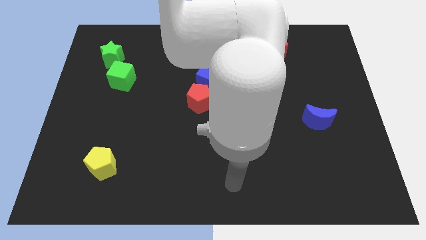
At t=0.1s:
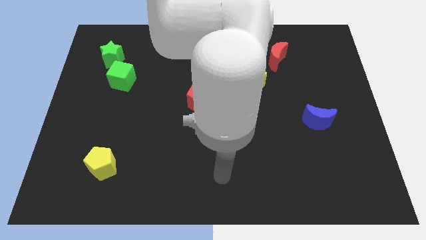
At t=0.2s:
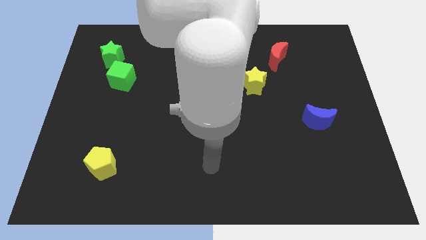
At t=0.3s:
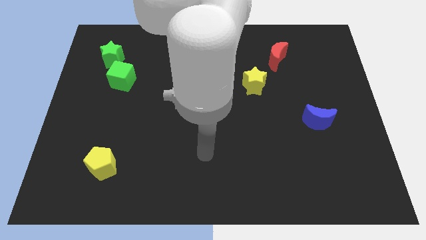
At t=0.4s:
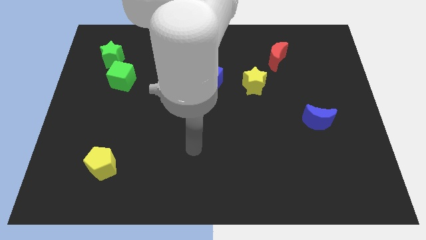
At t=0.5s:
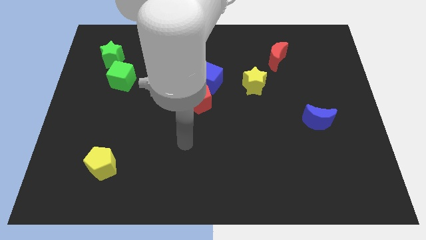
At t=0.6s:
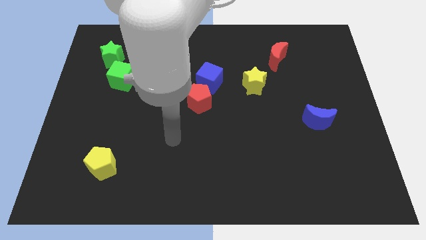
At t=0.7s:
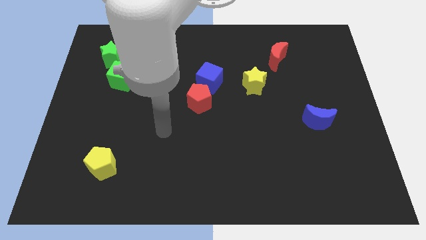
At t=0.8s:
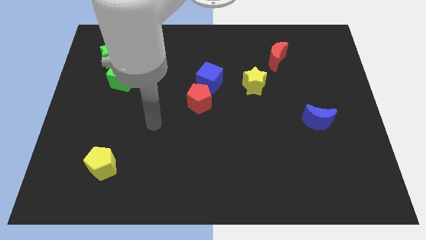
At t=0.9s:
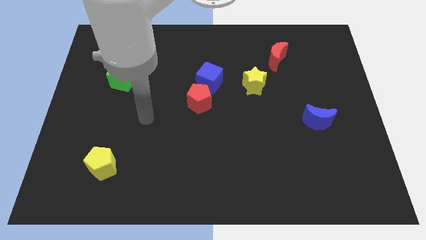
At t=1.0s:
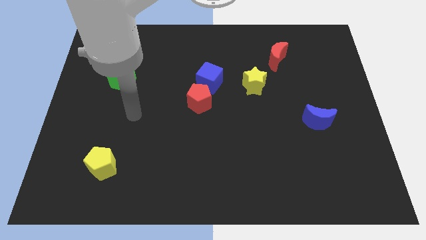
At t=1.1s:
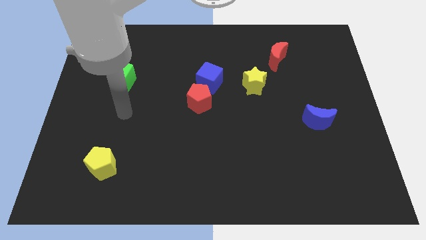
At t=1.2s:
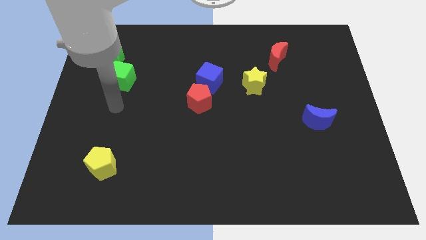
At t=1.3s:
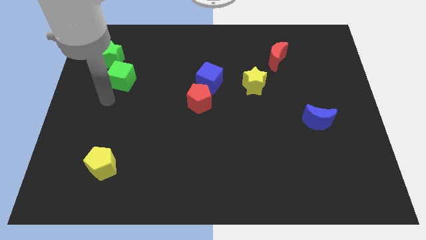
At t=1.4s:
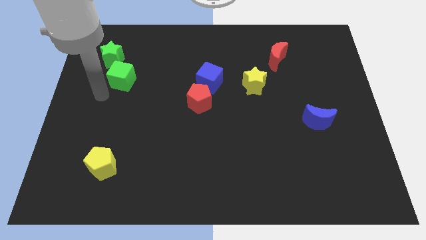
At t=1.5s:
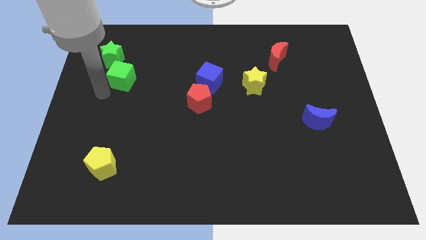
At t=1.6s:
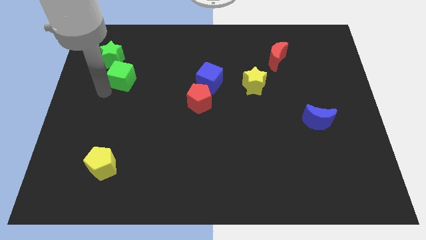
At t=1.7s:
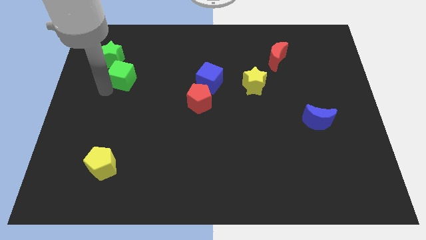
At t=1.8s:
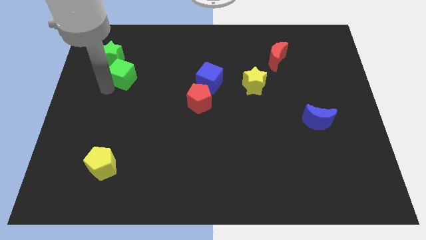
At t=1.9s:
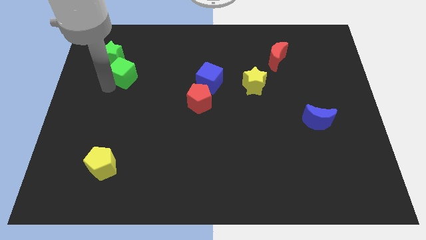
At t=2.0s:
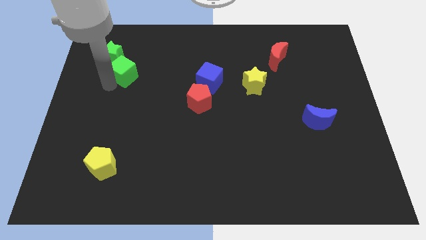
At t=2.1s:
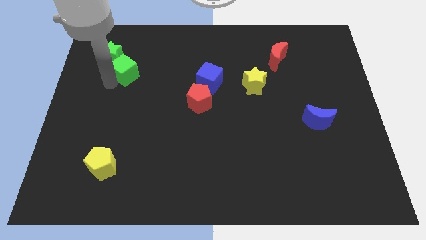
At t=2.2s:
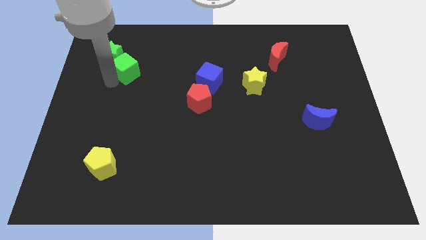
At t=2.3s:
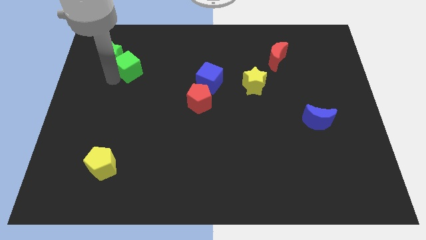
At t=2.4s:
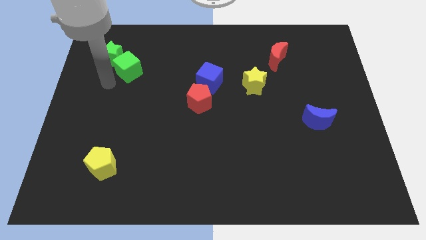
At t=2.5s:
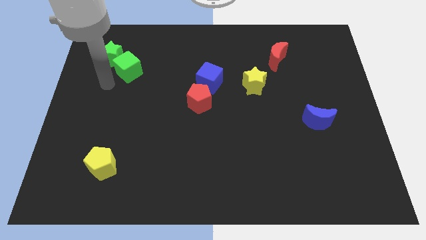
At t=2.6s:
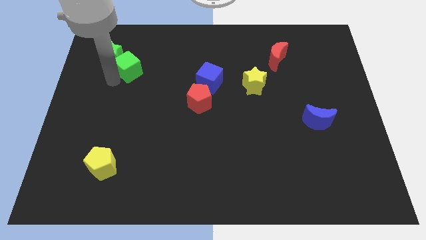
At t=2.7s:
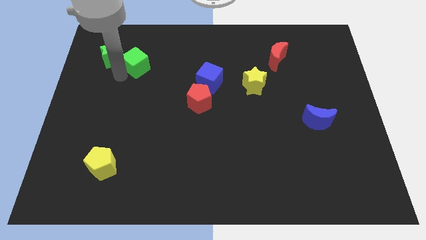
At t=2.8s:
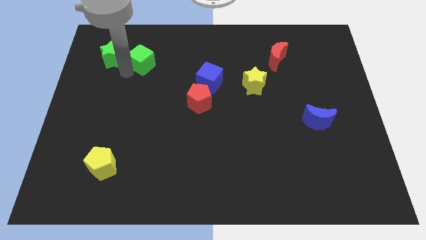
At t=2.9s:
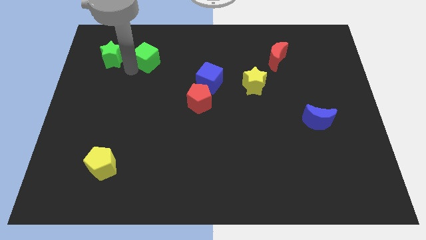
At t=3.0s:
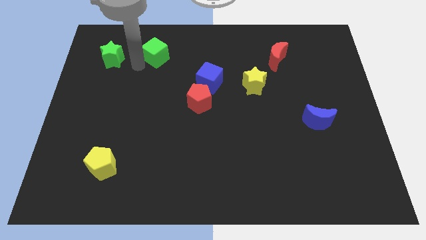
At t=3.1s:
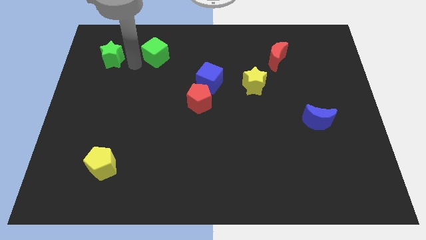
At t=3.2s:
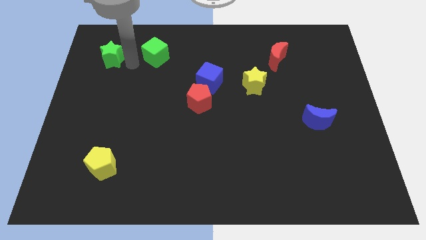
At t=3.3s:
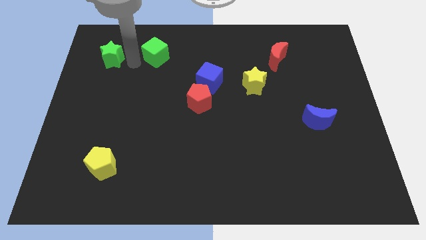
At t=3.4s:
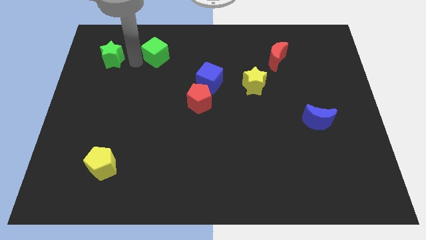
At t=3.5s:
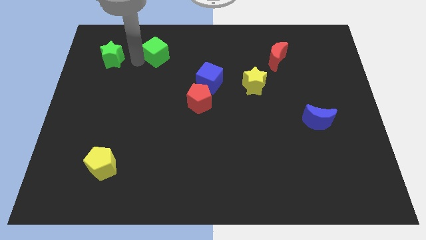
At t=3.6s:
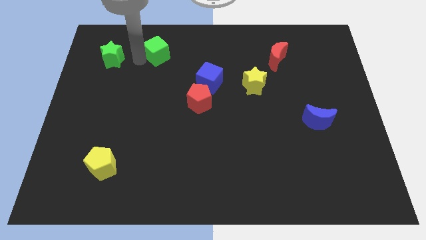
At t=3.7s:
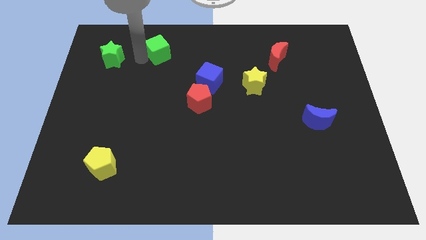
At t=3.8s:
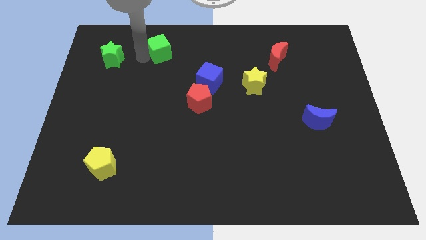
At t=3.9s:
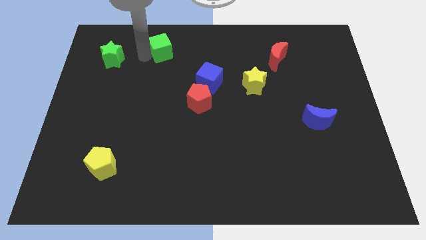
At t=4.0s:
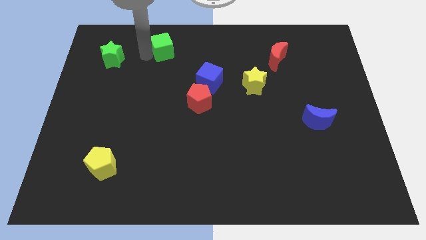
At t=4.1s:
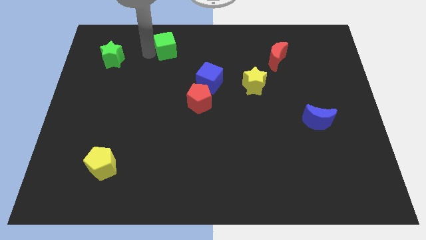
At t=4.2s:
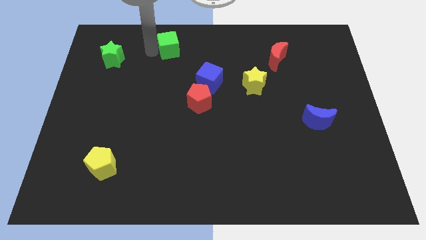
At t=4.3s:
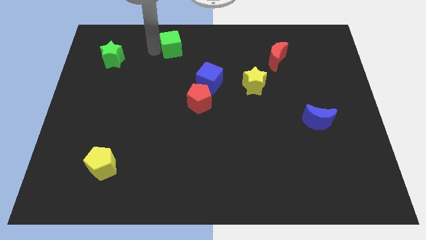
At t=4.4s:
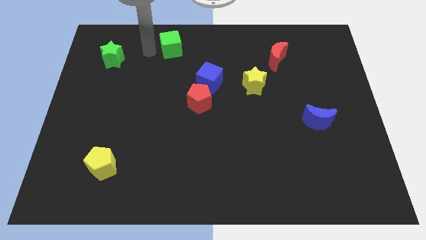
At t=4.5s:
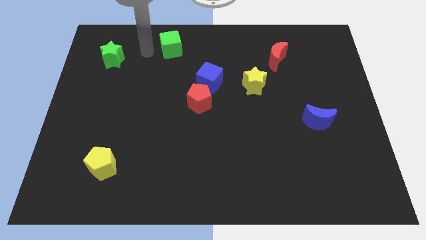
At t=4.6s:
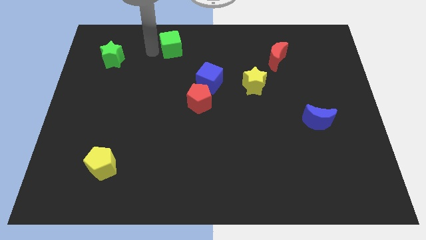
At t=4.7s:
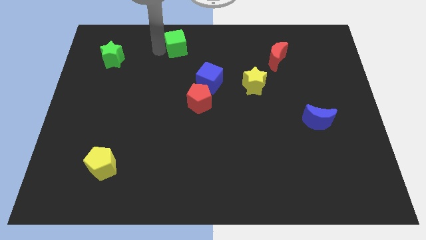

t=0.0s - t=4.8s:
slide the green cube to the top

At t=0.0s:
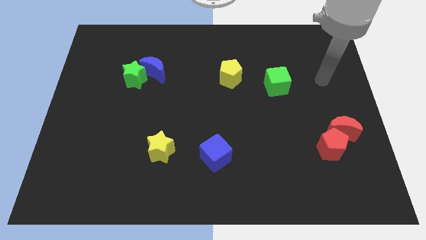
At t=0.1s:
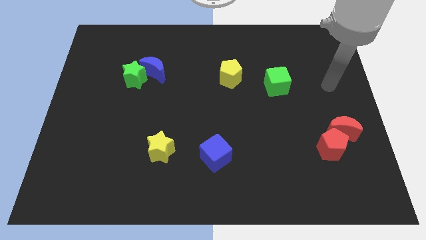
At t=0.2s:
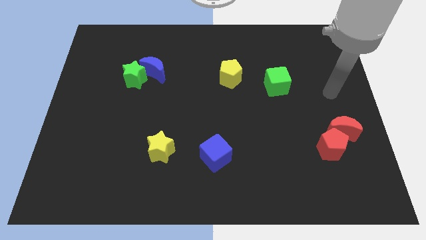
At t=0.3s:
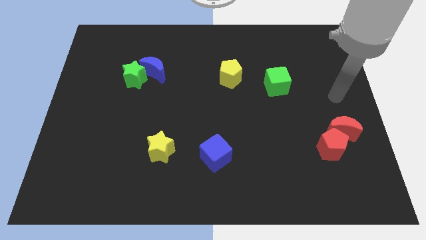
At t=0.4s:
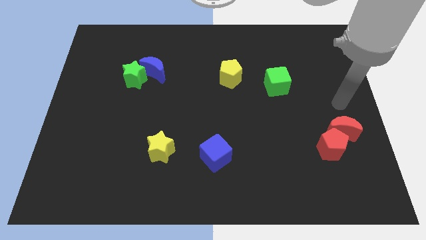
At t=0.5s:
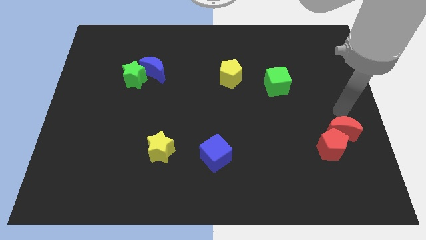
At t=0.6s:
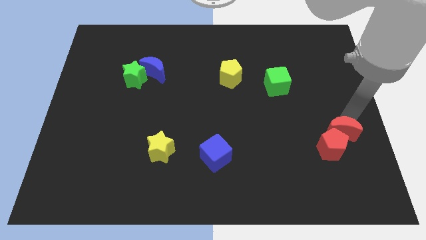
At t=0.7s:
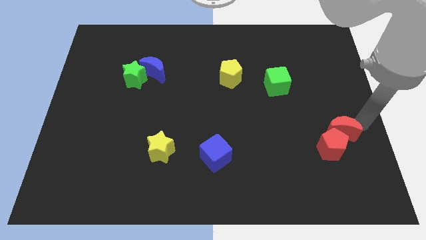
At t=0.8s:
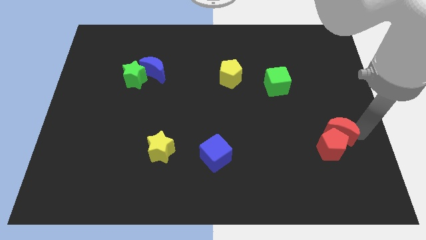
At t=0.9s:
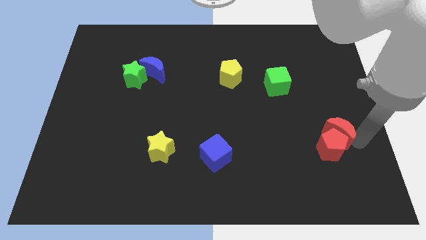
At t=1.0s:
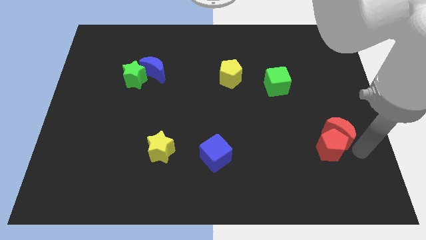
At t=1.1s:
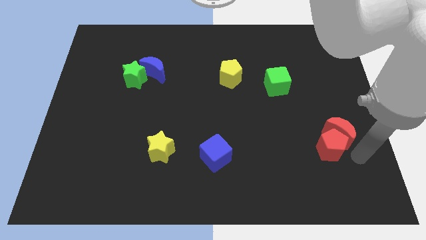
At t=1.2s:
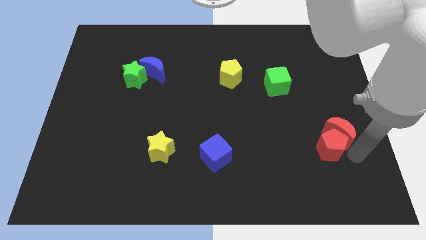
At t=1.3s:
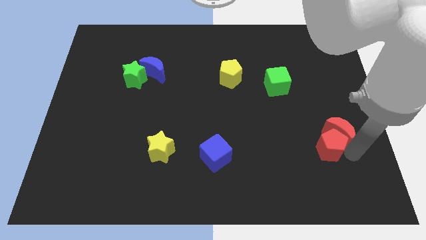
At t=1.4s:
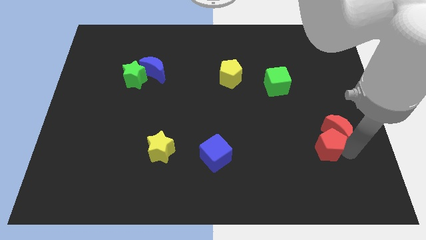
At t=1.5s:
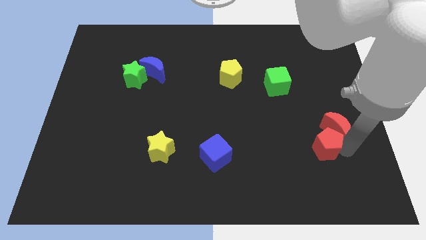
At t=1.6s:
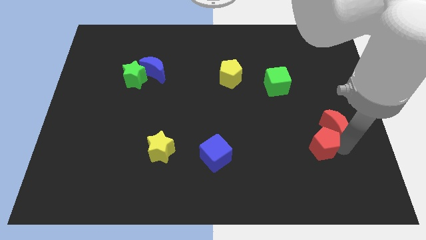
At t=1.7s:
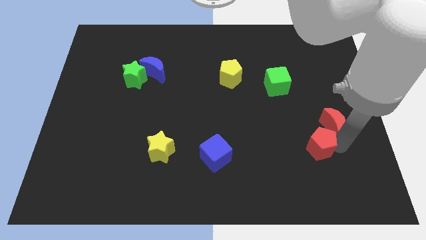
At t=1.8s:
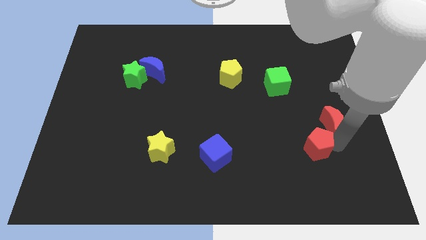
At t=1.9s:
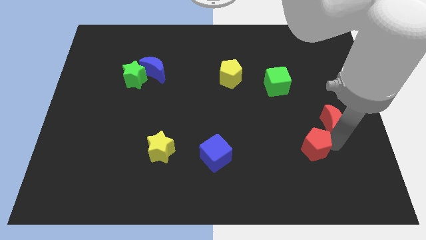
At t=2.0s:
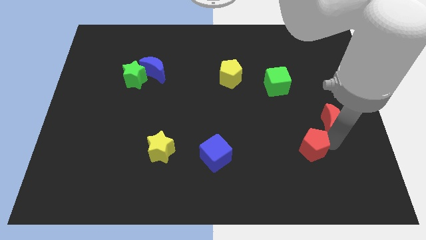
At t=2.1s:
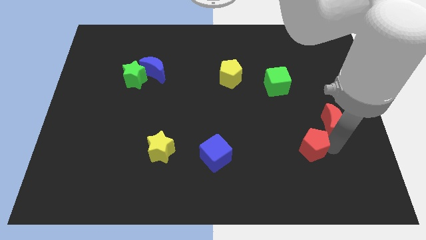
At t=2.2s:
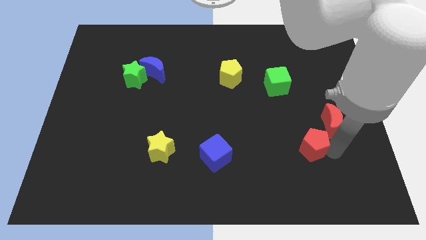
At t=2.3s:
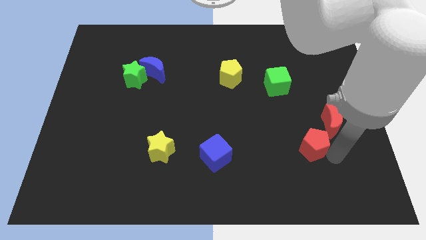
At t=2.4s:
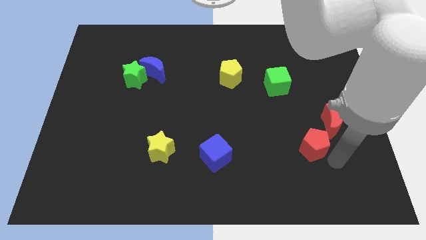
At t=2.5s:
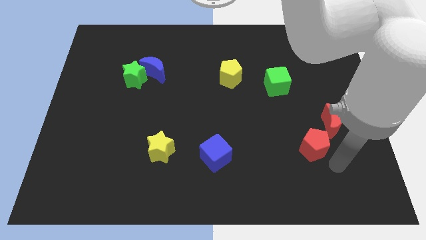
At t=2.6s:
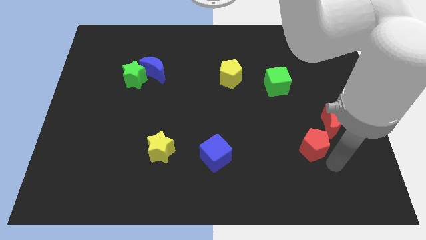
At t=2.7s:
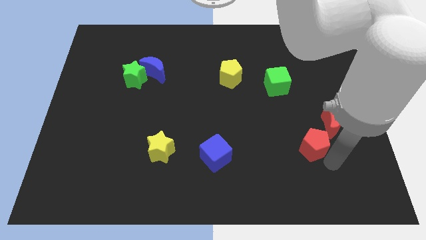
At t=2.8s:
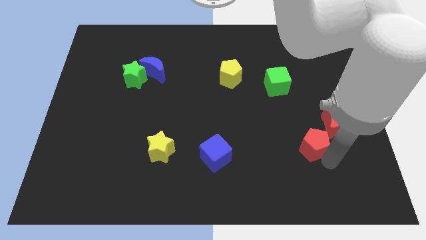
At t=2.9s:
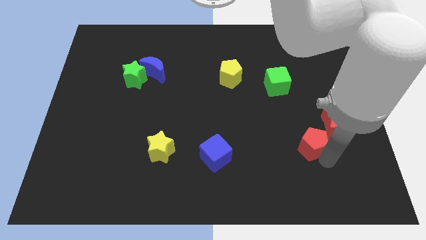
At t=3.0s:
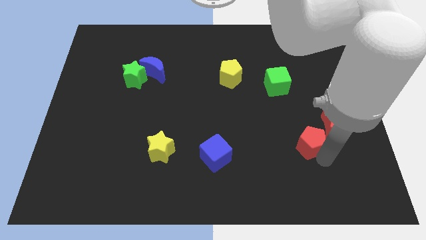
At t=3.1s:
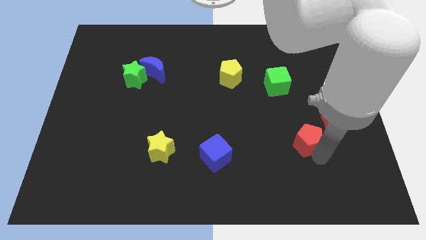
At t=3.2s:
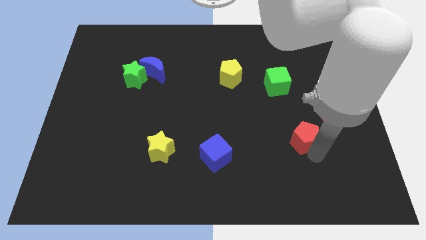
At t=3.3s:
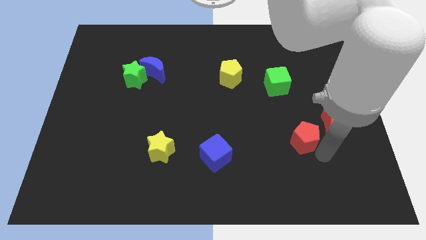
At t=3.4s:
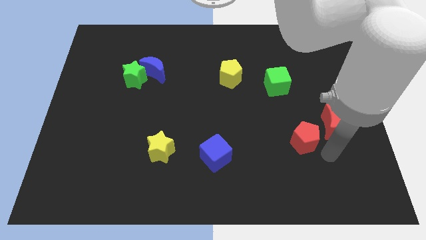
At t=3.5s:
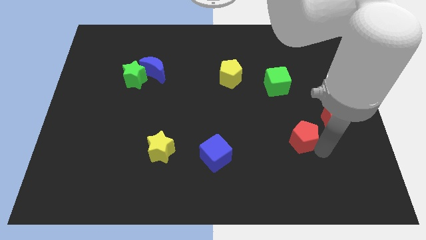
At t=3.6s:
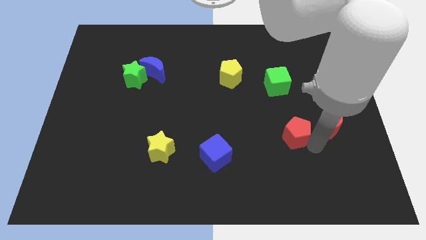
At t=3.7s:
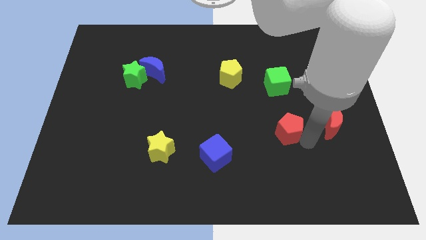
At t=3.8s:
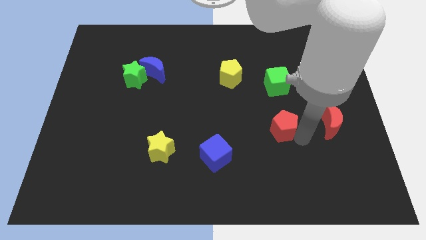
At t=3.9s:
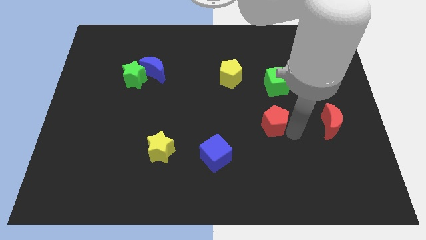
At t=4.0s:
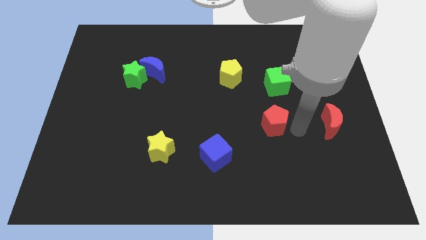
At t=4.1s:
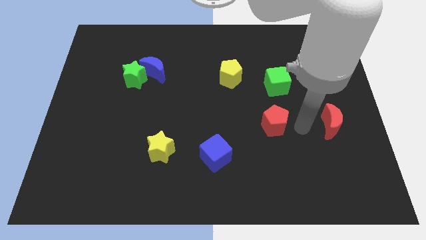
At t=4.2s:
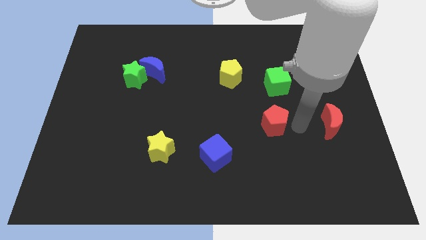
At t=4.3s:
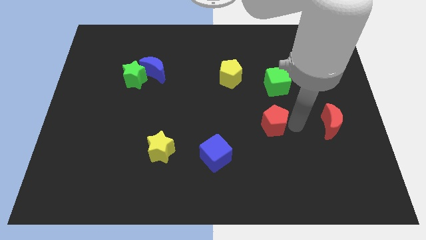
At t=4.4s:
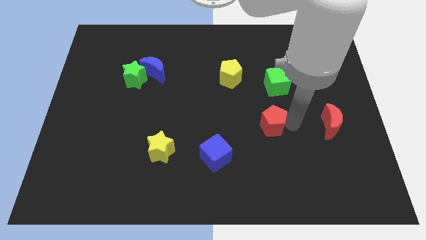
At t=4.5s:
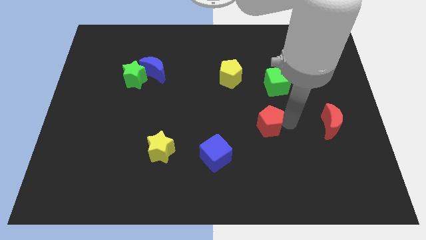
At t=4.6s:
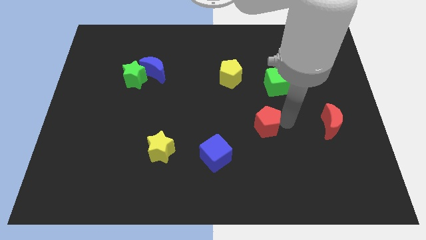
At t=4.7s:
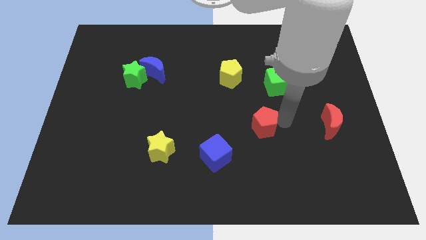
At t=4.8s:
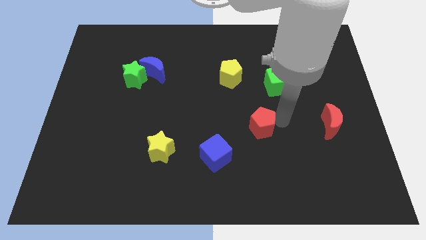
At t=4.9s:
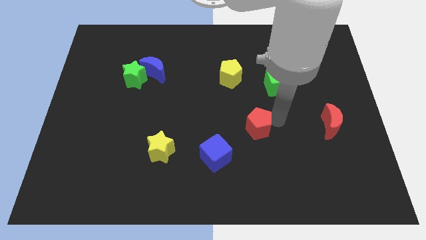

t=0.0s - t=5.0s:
put the red pentagon to the center of the board
